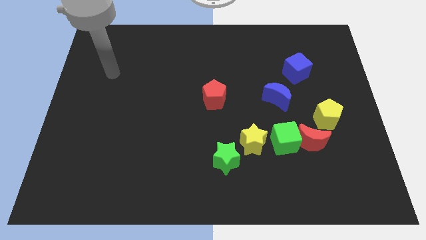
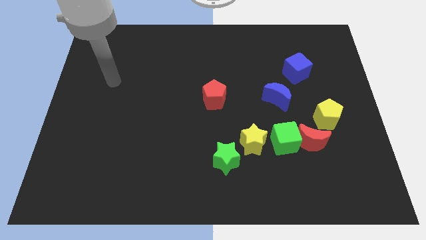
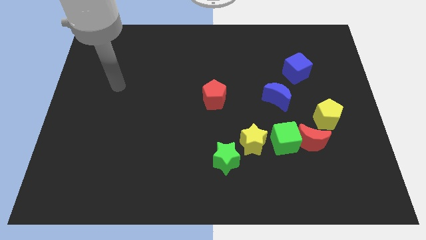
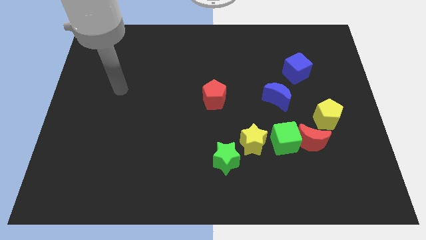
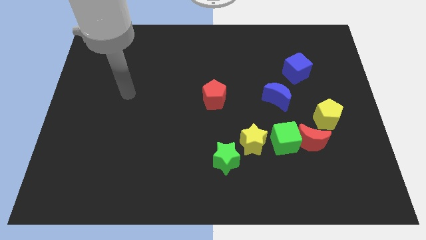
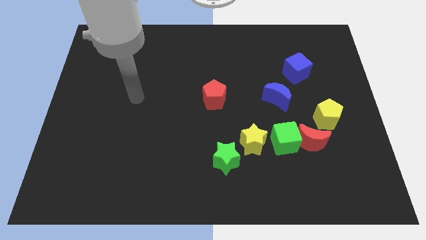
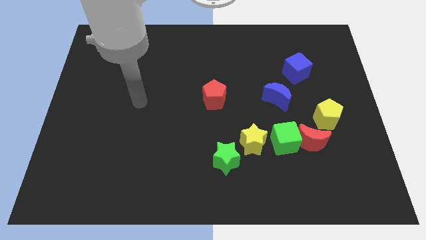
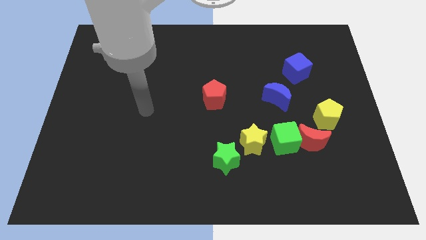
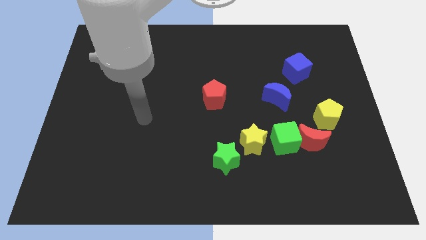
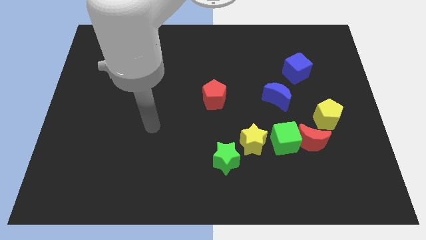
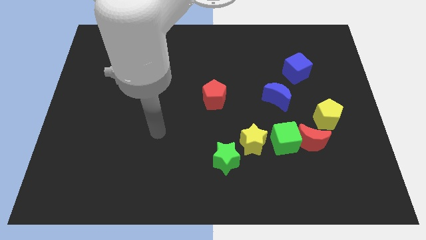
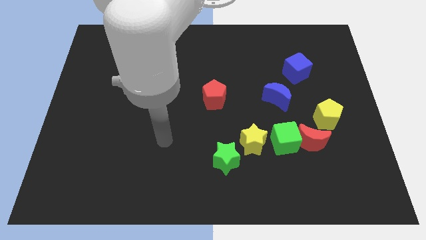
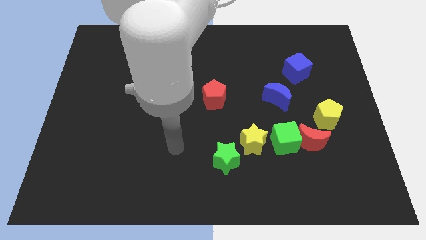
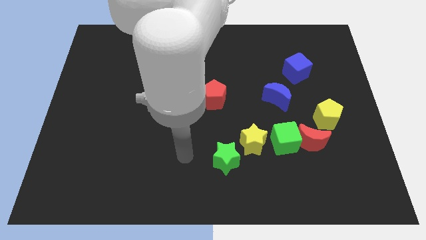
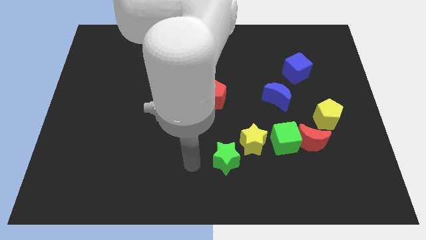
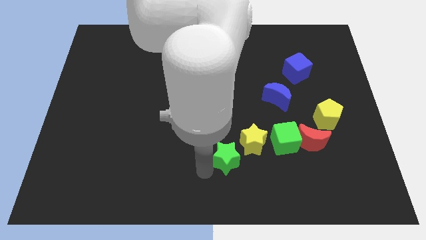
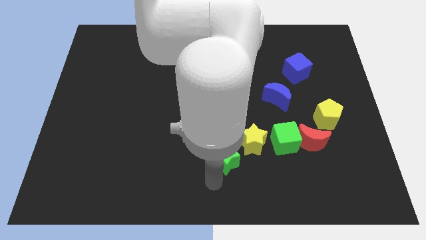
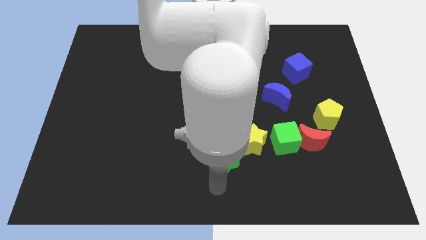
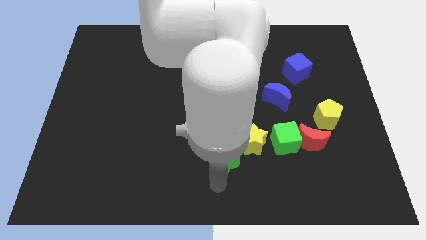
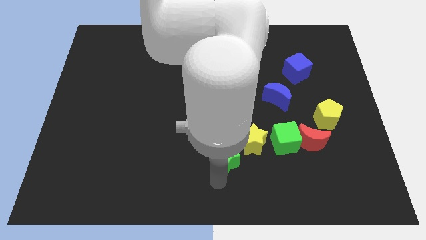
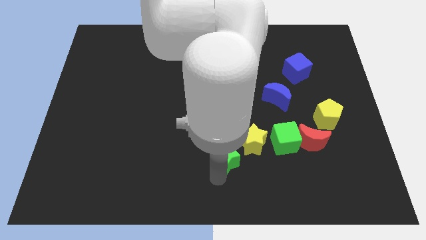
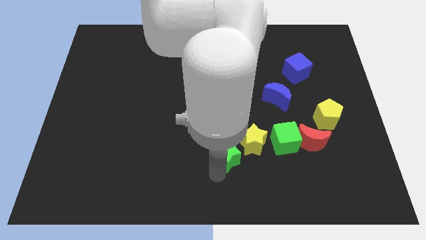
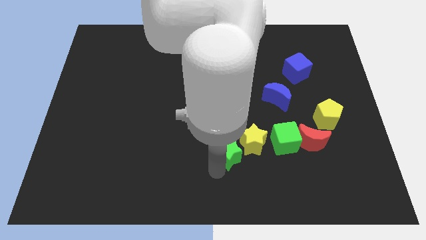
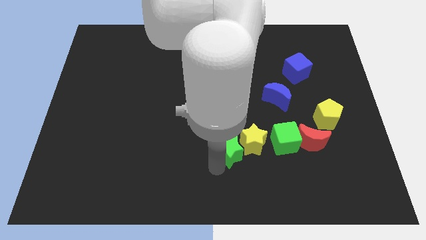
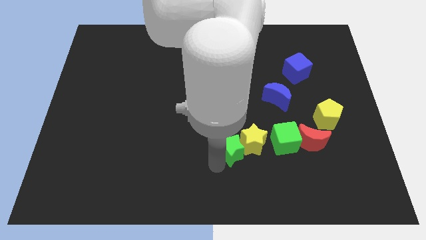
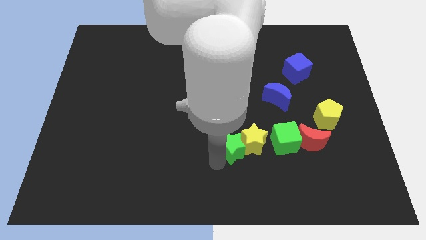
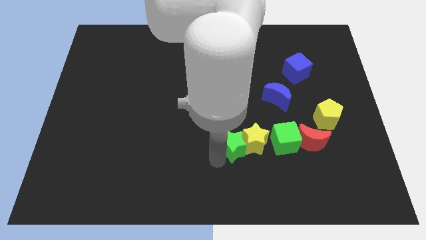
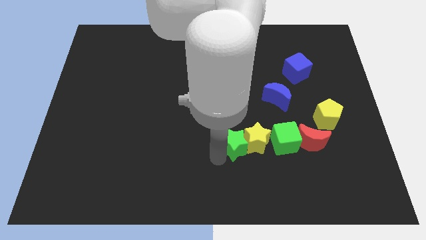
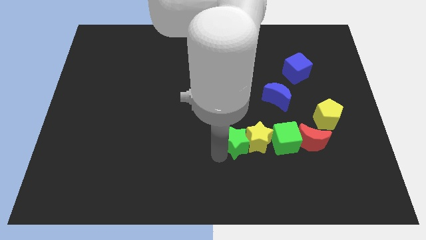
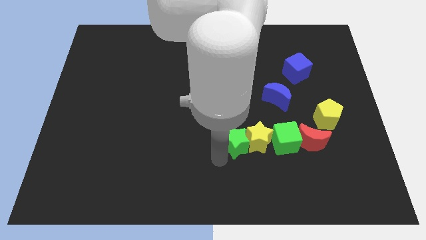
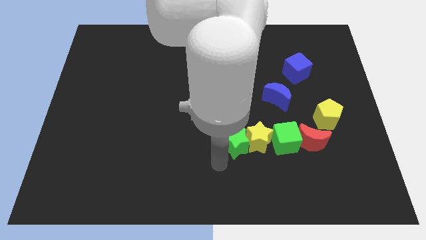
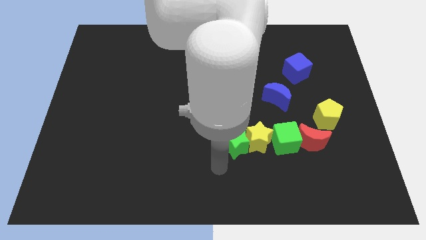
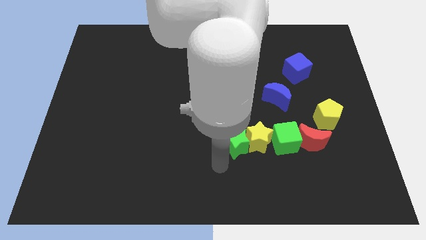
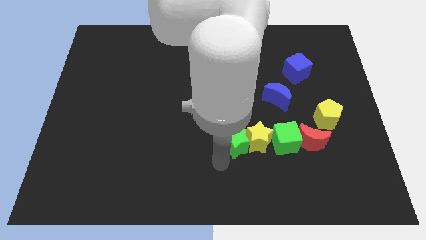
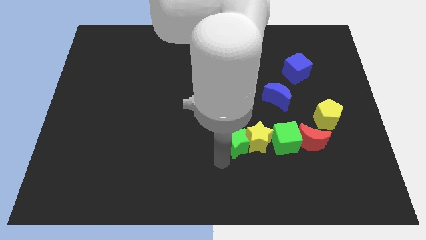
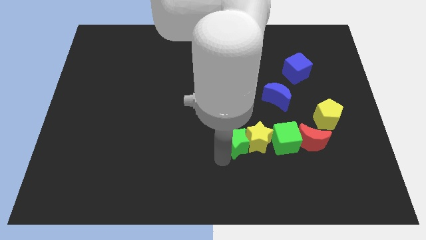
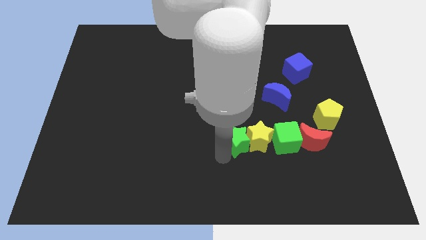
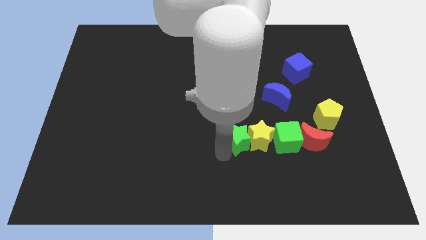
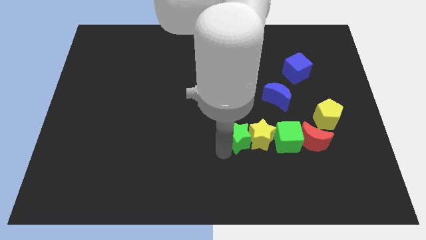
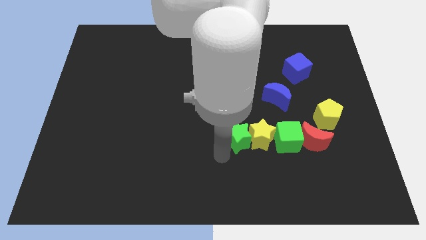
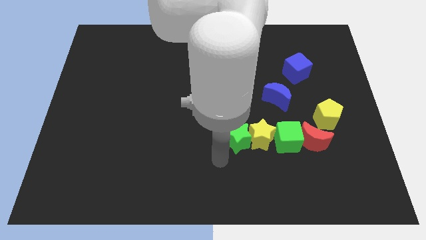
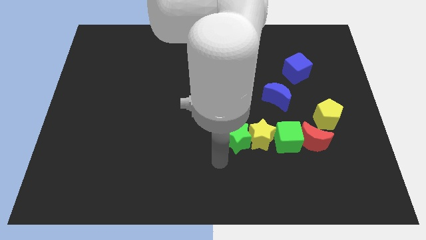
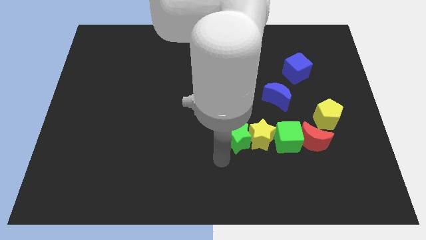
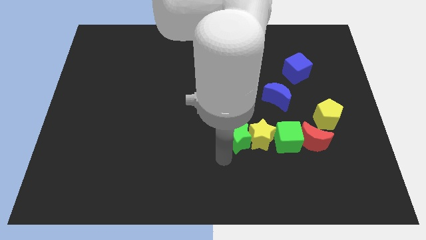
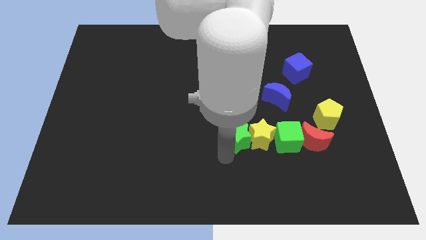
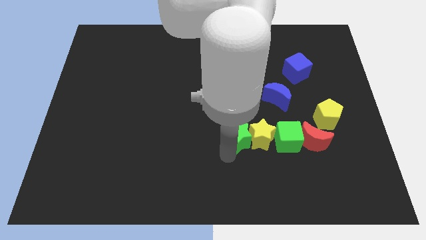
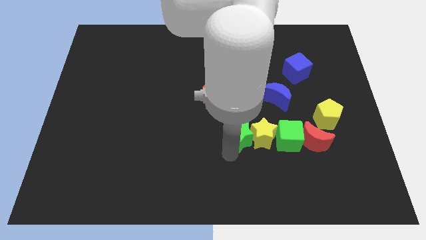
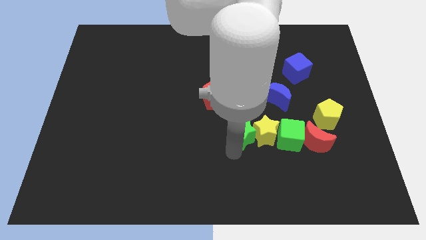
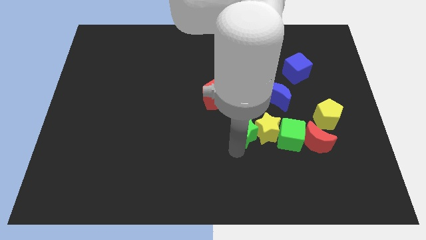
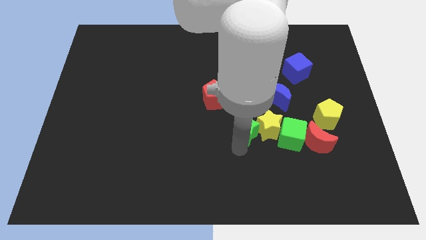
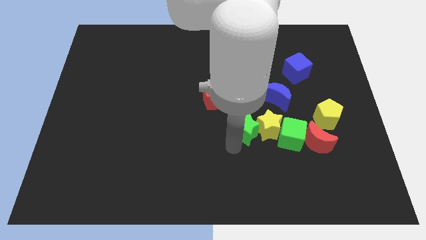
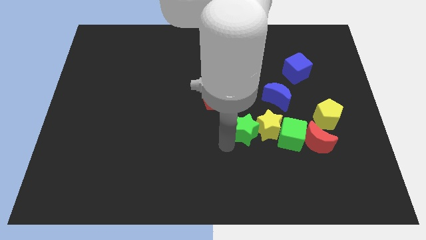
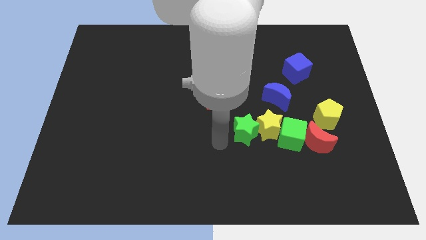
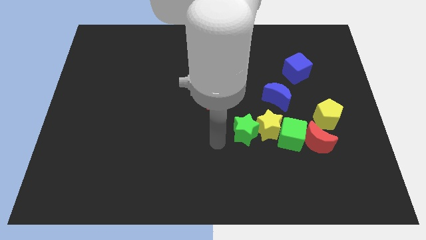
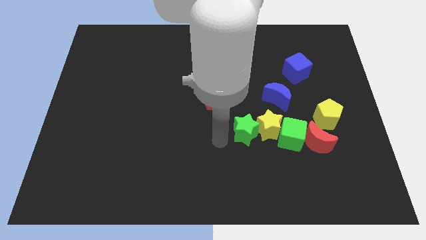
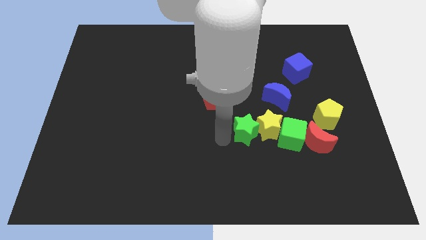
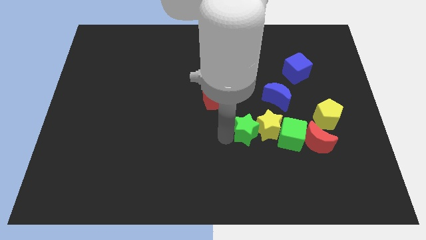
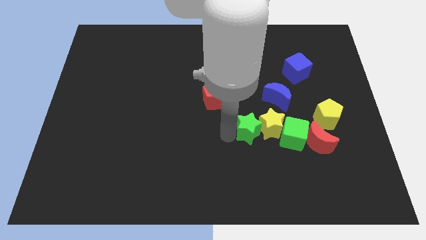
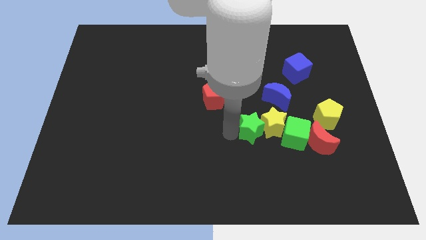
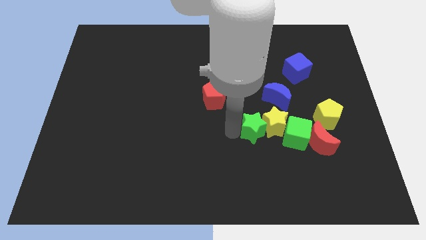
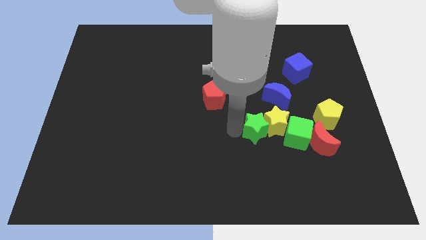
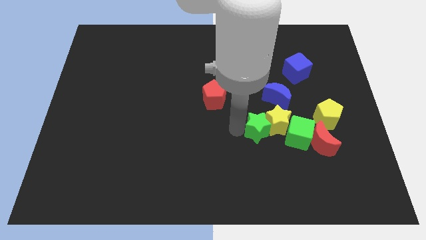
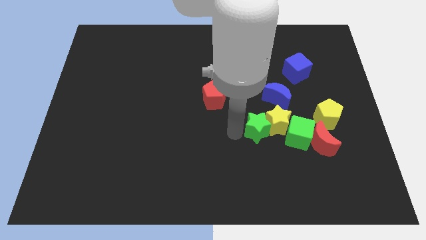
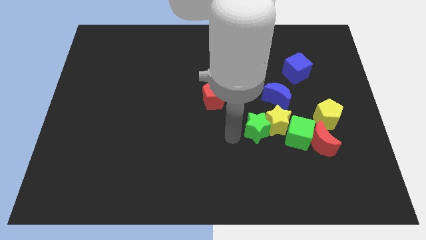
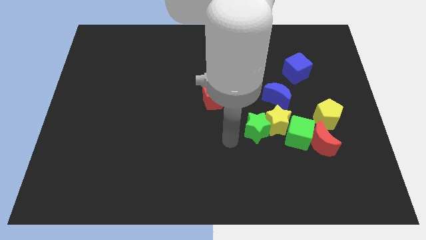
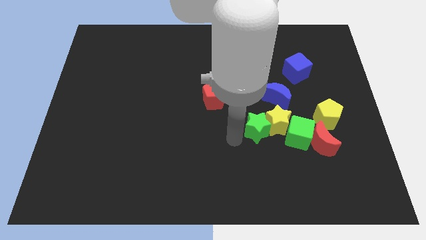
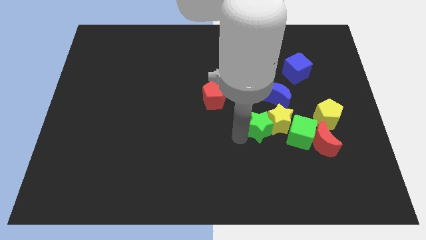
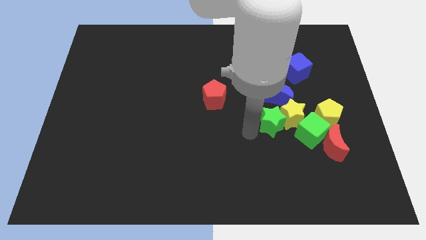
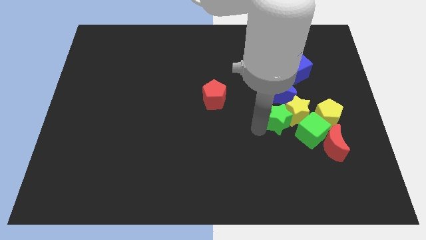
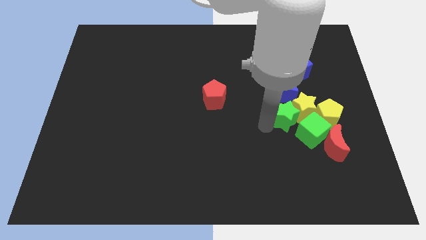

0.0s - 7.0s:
push the green star to the bottom right side of the blue moon
